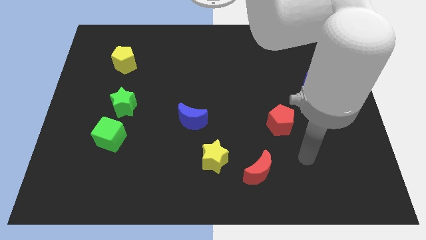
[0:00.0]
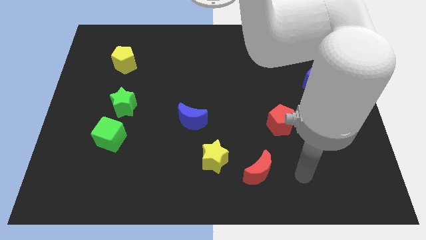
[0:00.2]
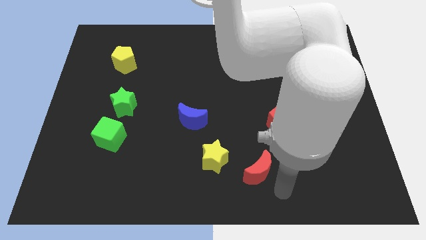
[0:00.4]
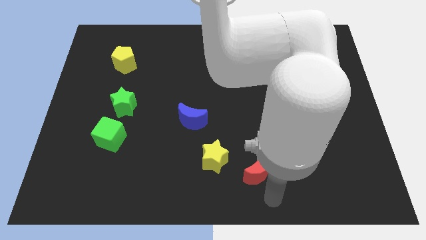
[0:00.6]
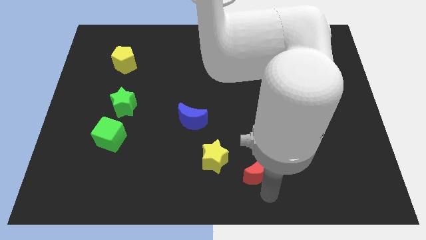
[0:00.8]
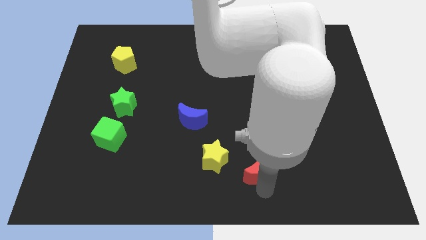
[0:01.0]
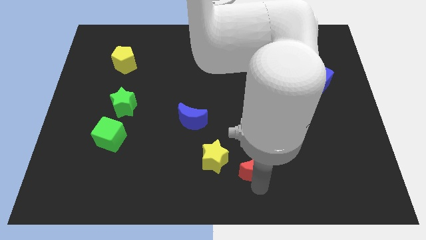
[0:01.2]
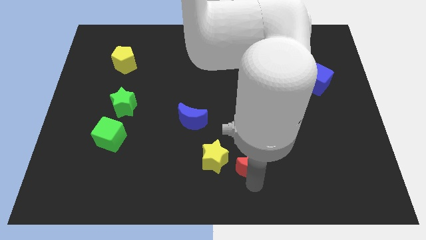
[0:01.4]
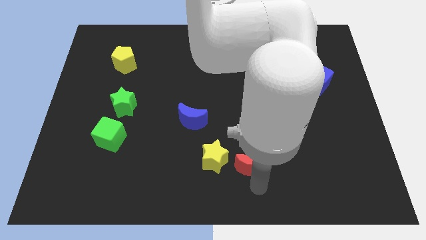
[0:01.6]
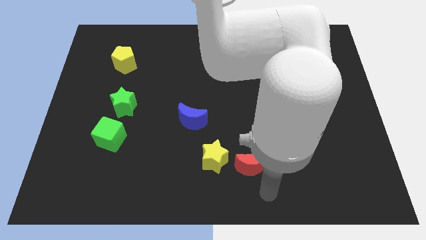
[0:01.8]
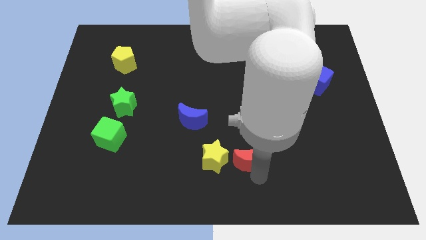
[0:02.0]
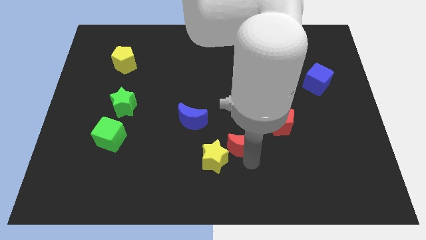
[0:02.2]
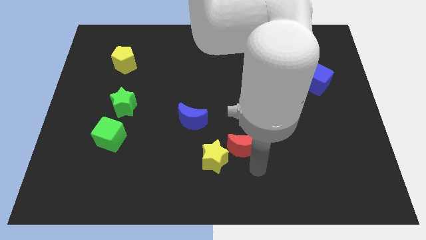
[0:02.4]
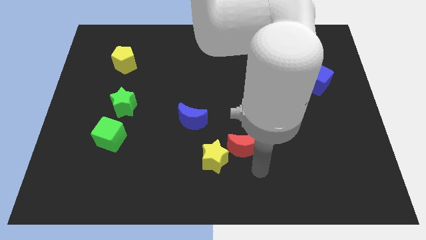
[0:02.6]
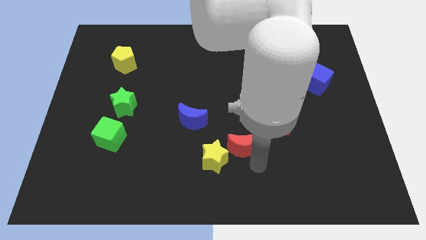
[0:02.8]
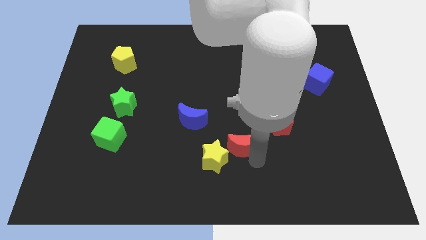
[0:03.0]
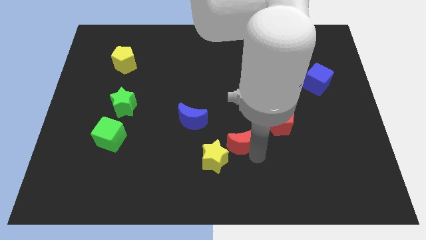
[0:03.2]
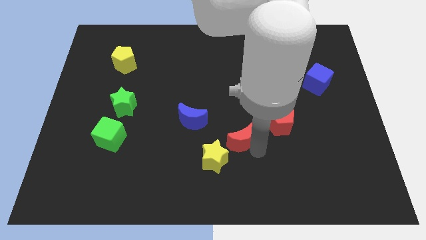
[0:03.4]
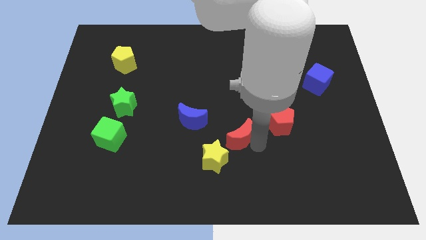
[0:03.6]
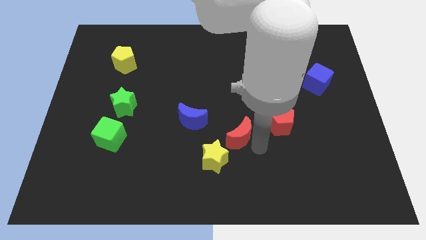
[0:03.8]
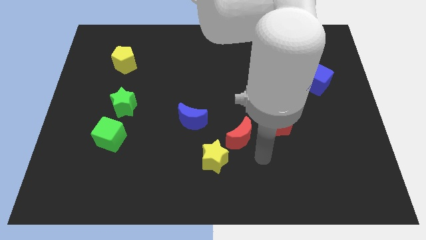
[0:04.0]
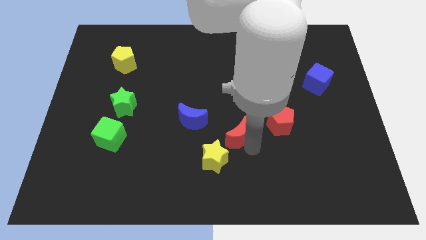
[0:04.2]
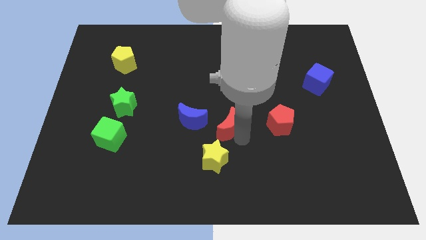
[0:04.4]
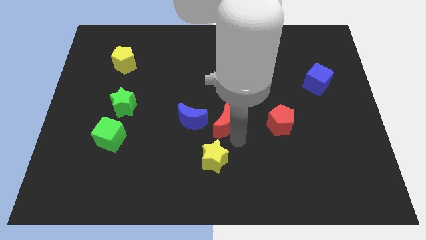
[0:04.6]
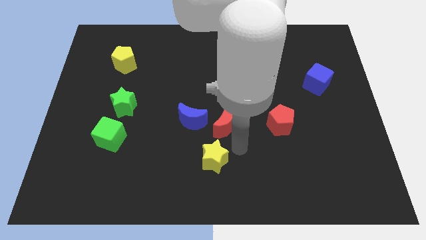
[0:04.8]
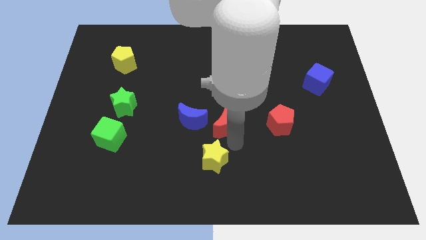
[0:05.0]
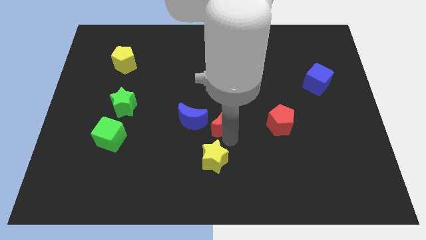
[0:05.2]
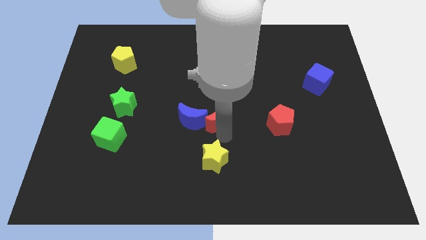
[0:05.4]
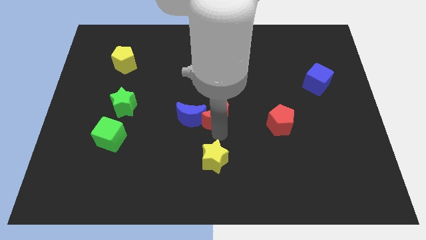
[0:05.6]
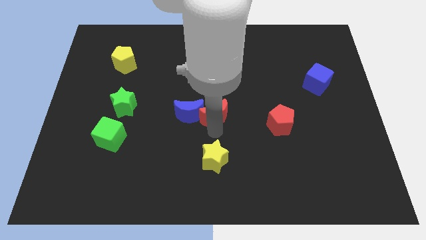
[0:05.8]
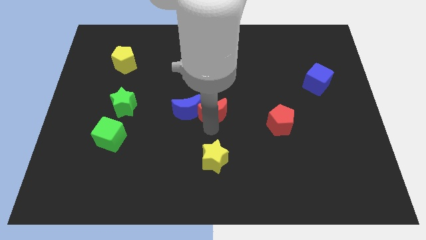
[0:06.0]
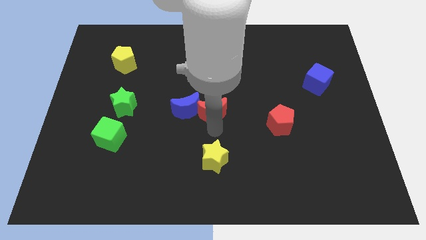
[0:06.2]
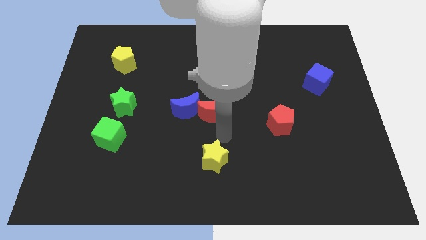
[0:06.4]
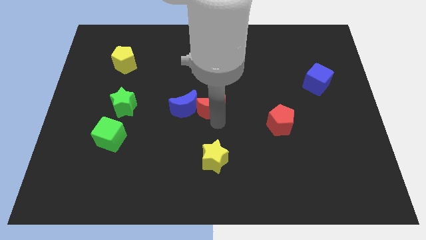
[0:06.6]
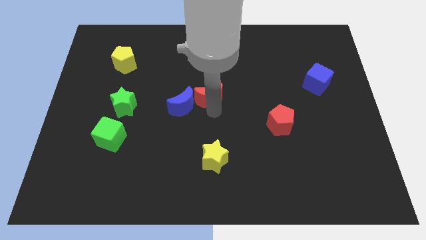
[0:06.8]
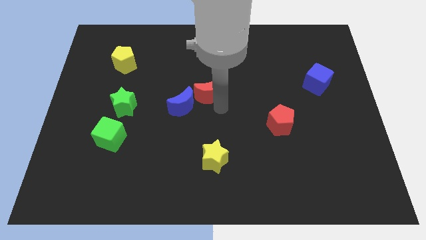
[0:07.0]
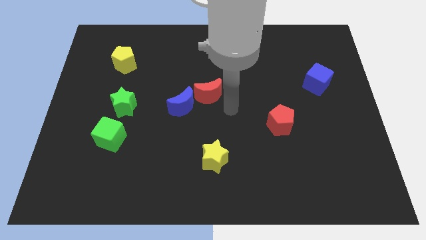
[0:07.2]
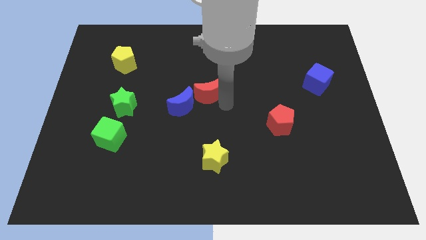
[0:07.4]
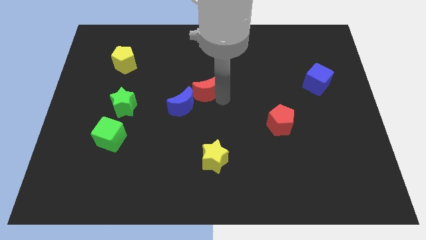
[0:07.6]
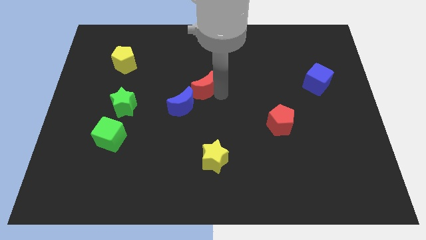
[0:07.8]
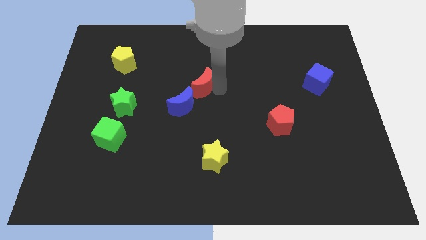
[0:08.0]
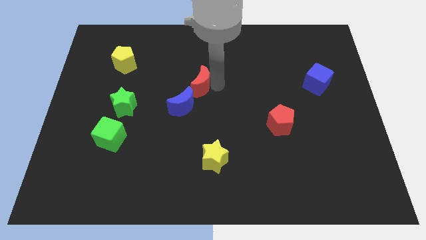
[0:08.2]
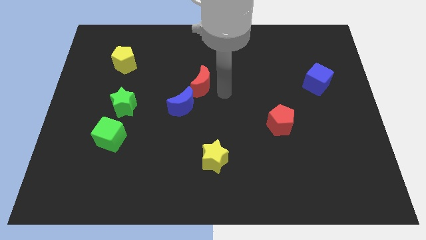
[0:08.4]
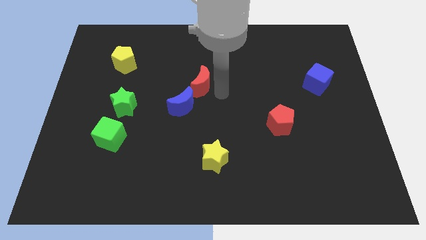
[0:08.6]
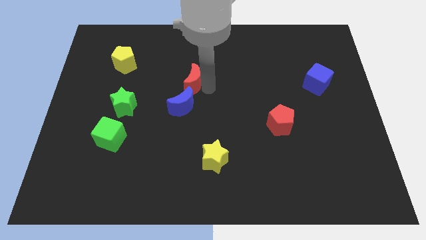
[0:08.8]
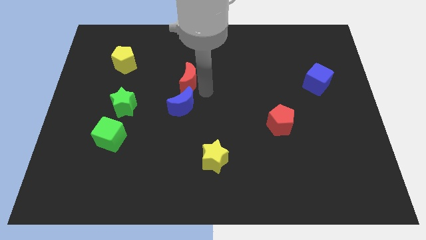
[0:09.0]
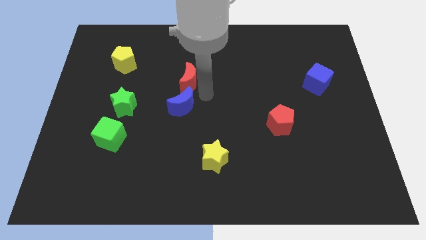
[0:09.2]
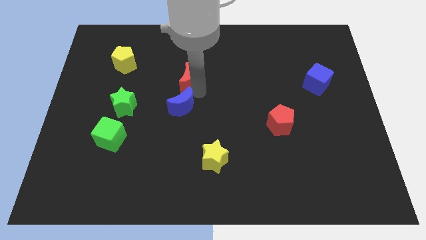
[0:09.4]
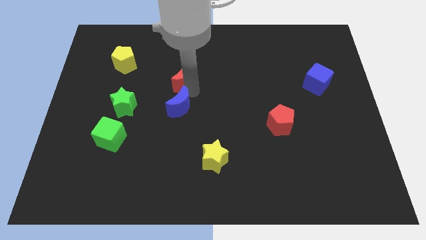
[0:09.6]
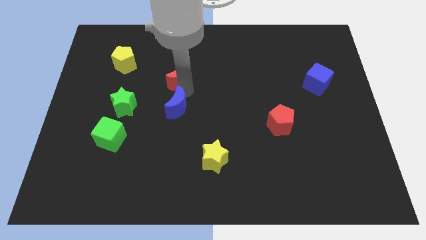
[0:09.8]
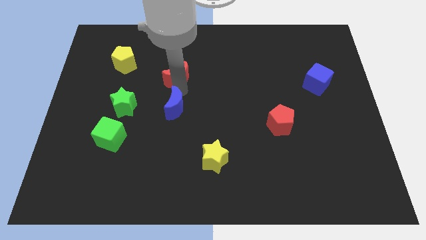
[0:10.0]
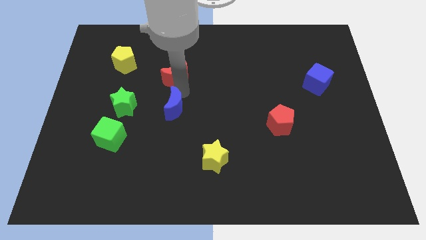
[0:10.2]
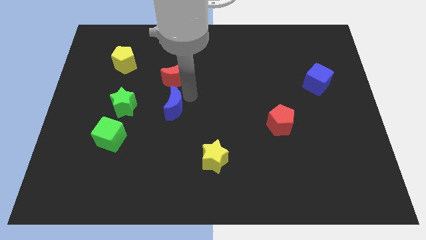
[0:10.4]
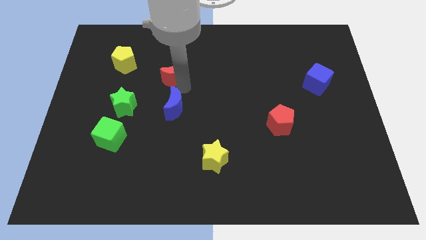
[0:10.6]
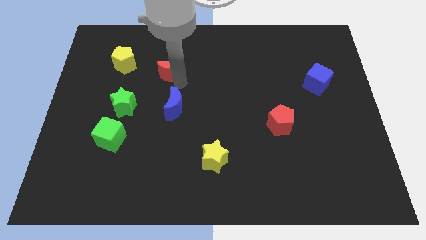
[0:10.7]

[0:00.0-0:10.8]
put the red moon just right of the yellow pentagon

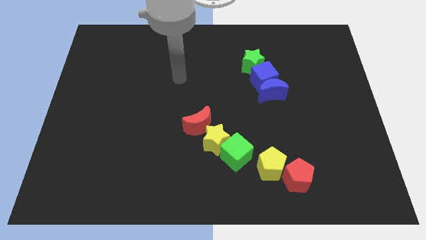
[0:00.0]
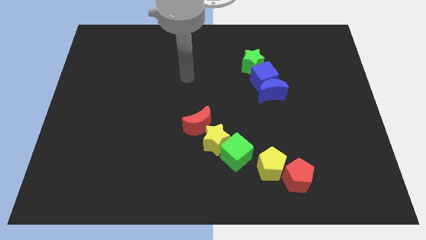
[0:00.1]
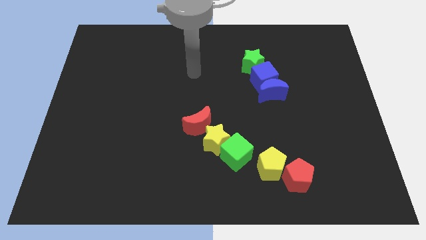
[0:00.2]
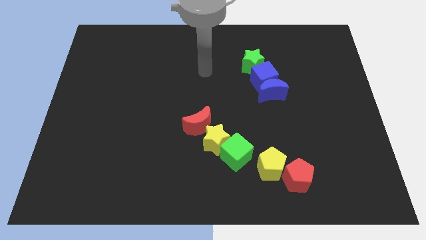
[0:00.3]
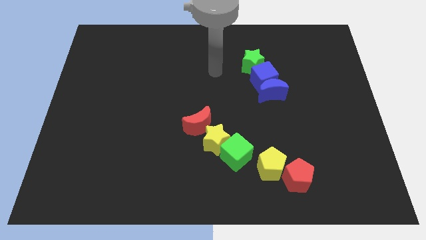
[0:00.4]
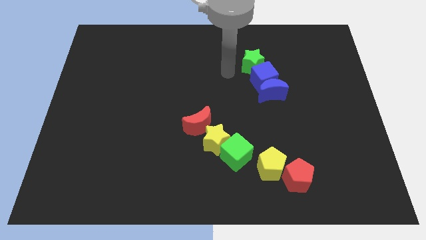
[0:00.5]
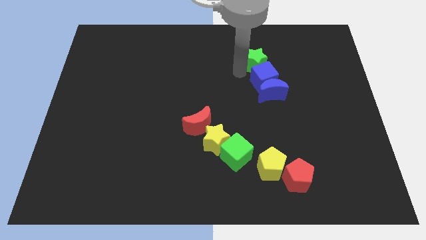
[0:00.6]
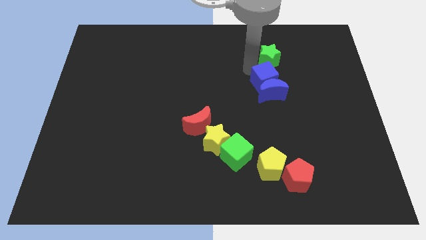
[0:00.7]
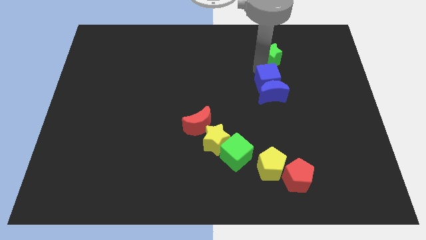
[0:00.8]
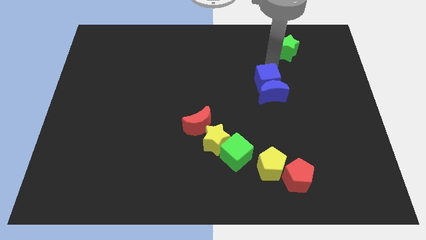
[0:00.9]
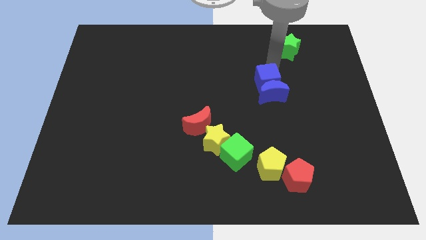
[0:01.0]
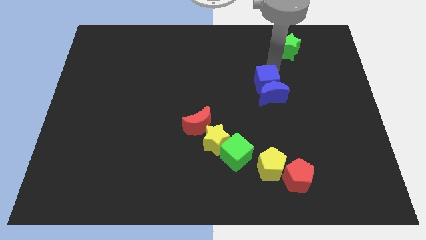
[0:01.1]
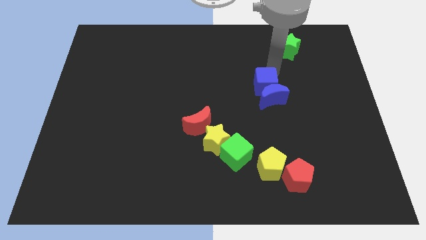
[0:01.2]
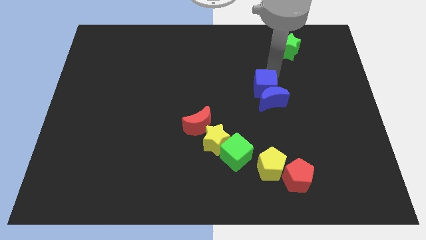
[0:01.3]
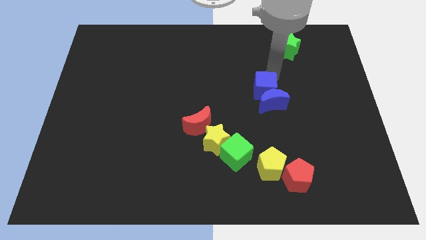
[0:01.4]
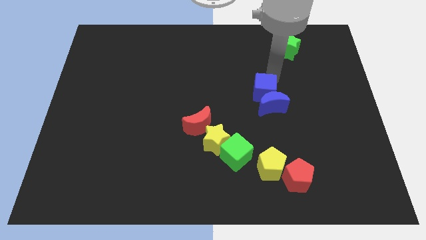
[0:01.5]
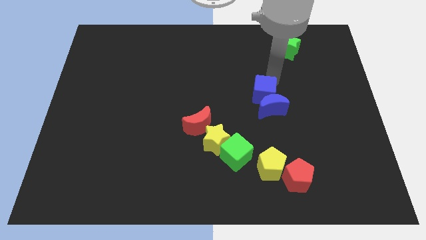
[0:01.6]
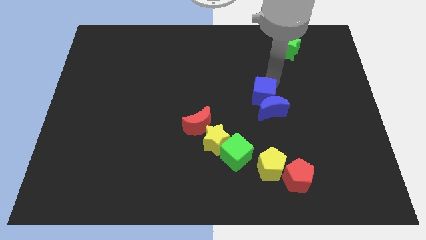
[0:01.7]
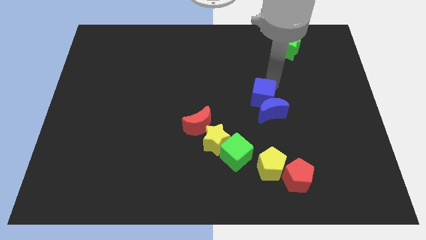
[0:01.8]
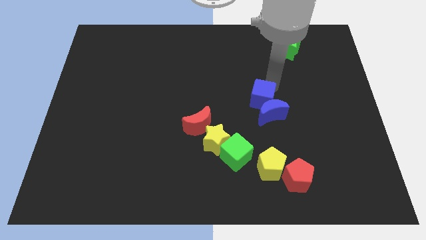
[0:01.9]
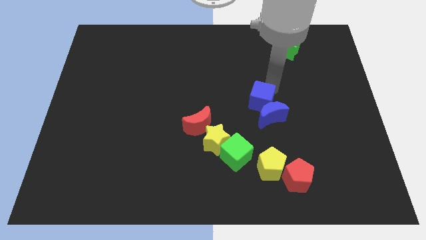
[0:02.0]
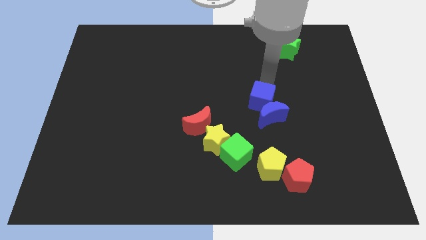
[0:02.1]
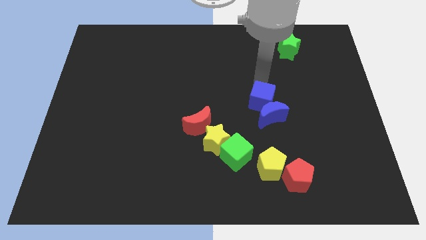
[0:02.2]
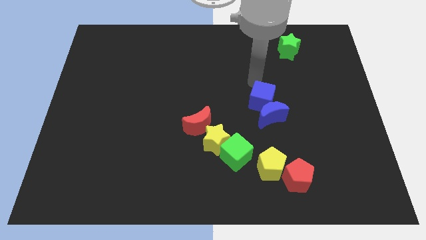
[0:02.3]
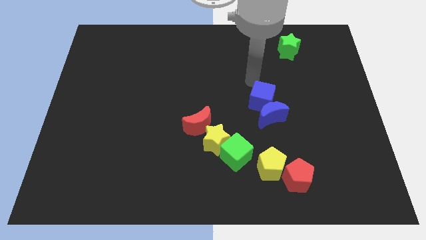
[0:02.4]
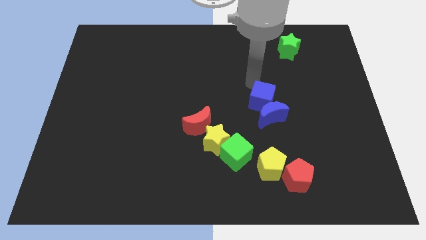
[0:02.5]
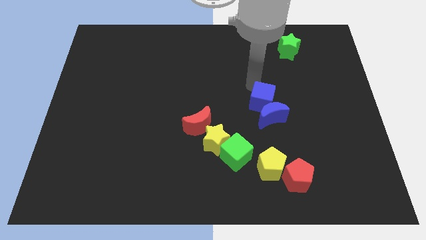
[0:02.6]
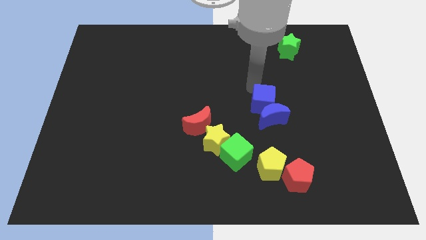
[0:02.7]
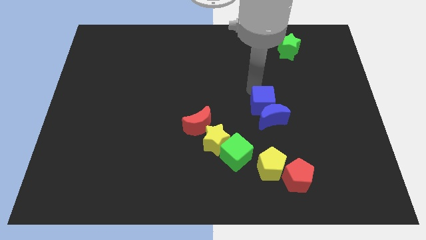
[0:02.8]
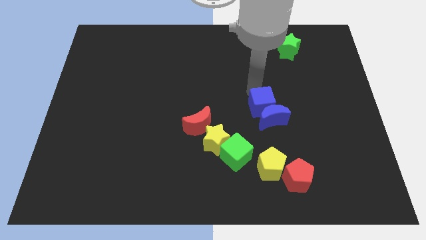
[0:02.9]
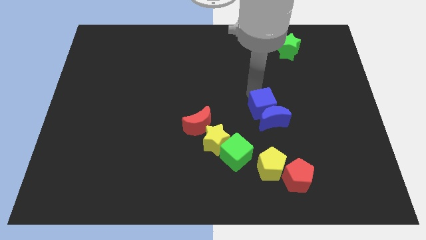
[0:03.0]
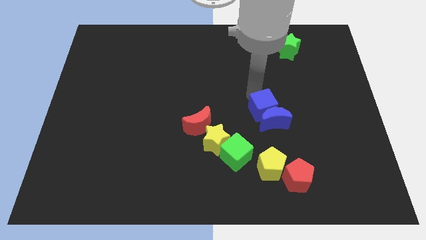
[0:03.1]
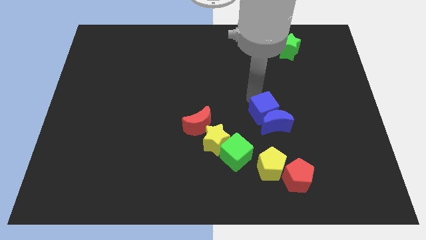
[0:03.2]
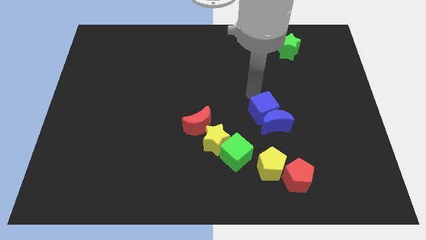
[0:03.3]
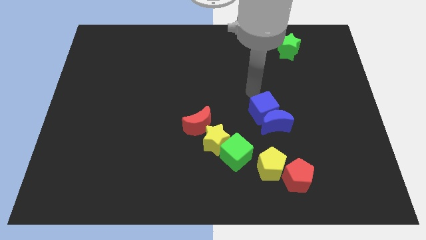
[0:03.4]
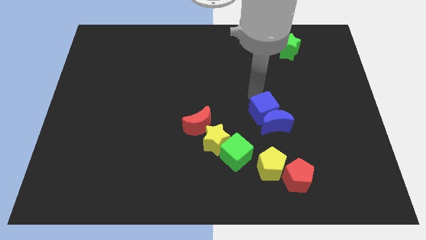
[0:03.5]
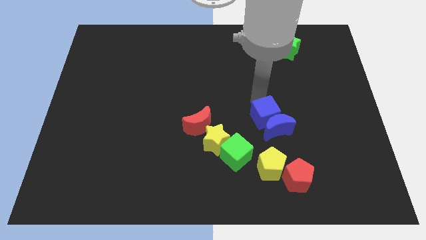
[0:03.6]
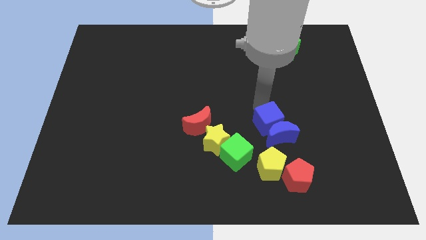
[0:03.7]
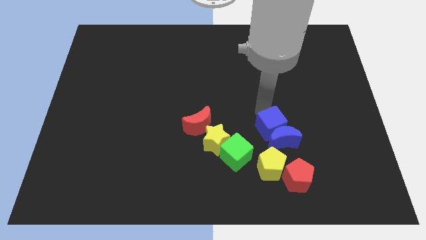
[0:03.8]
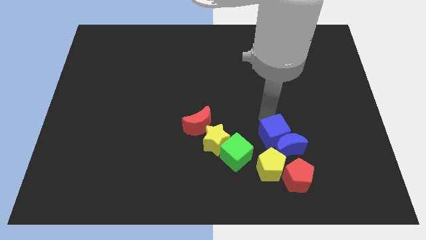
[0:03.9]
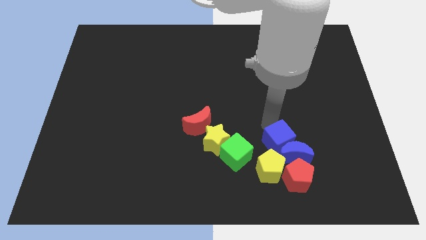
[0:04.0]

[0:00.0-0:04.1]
move the blue cube just right of the green cube
